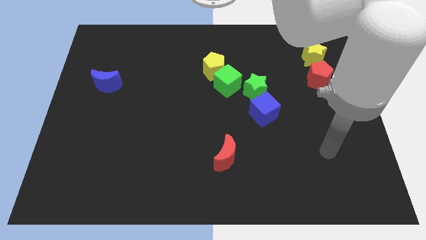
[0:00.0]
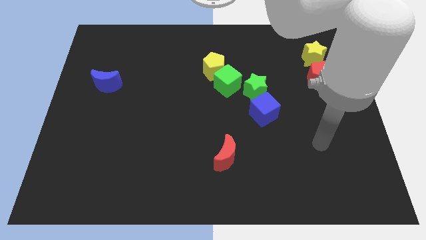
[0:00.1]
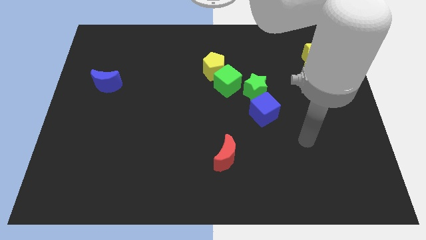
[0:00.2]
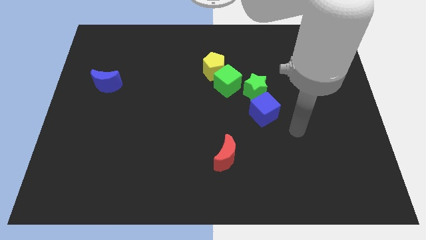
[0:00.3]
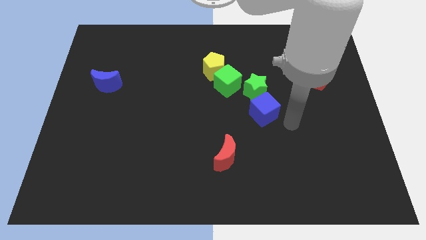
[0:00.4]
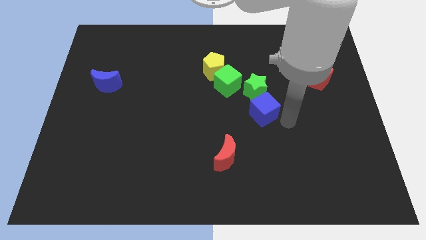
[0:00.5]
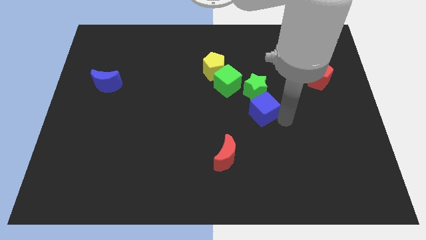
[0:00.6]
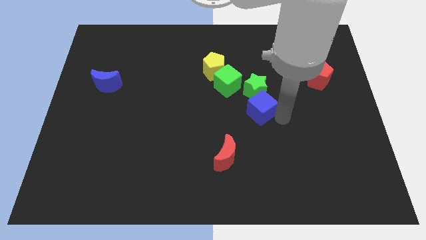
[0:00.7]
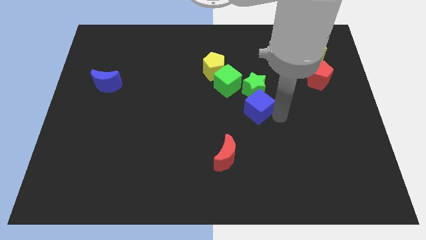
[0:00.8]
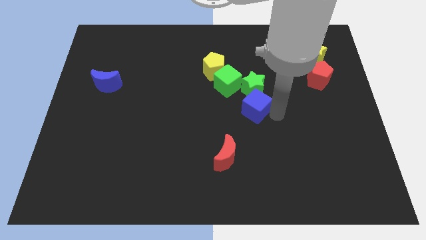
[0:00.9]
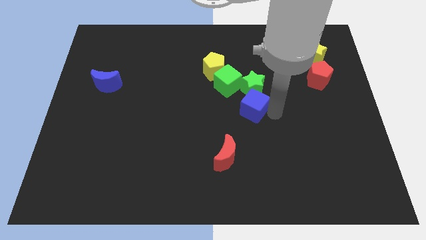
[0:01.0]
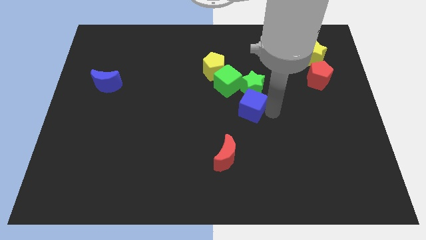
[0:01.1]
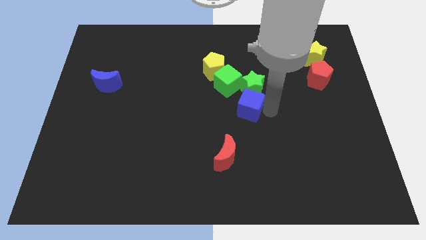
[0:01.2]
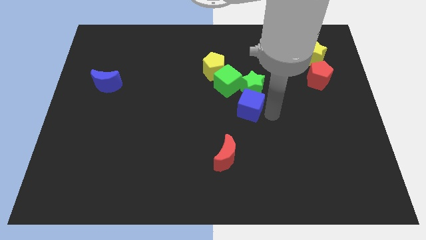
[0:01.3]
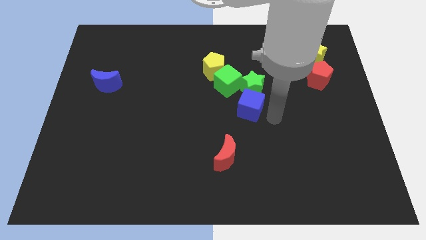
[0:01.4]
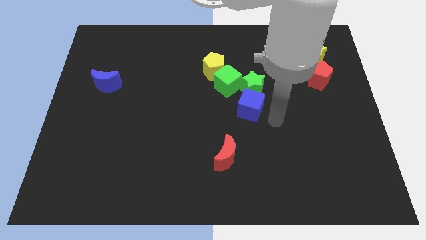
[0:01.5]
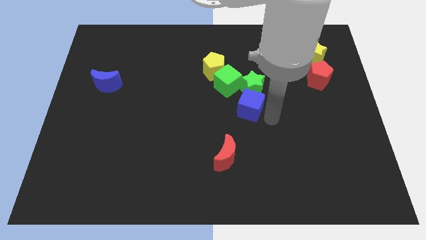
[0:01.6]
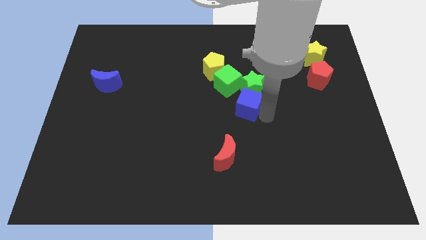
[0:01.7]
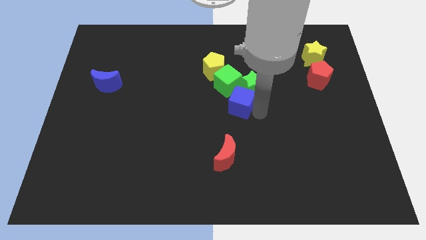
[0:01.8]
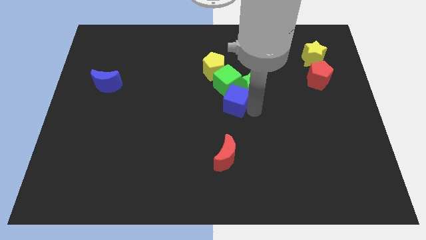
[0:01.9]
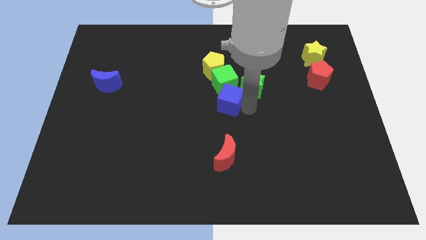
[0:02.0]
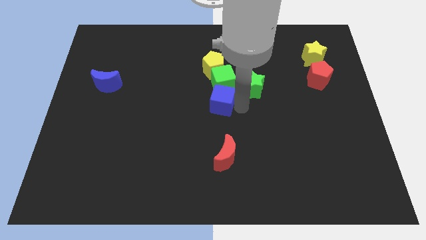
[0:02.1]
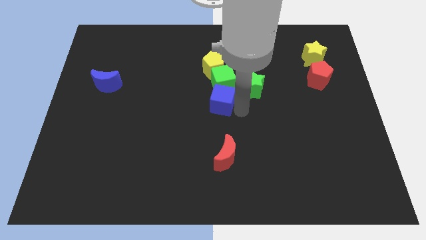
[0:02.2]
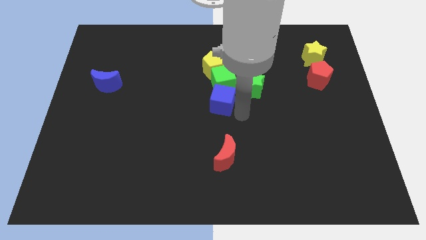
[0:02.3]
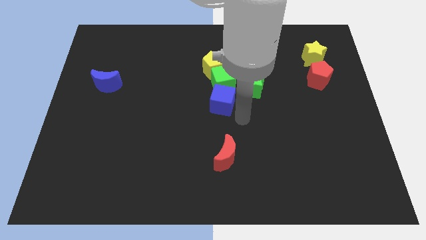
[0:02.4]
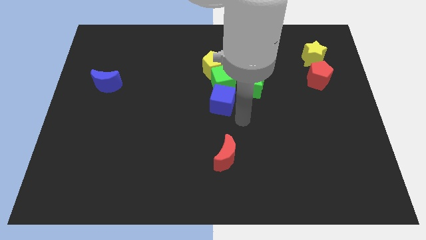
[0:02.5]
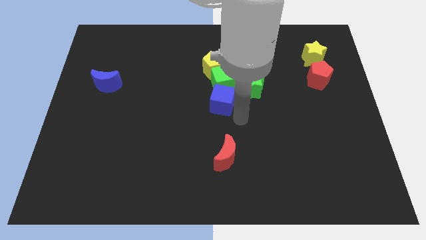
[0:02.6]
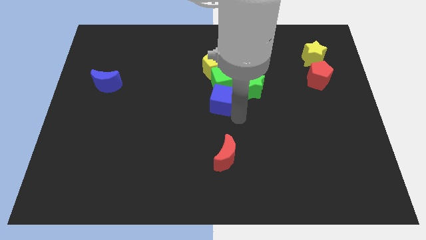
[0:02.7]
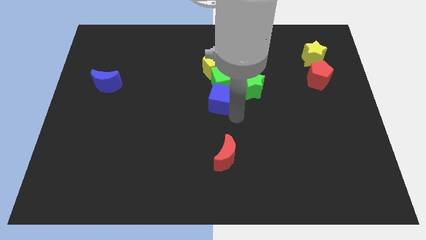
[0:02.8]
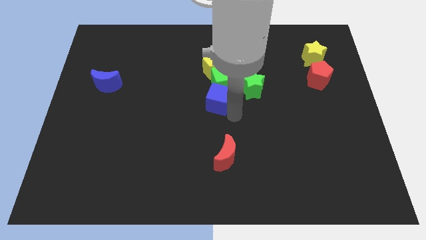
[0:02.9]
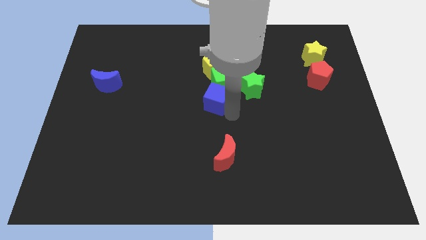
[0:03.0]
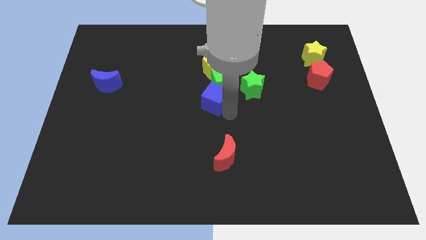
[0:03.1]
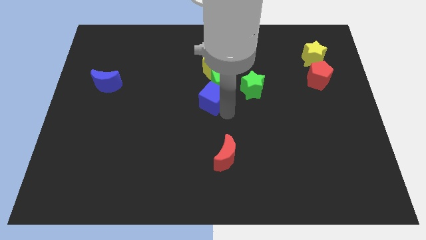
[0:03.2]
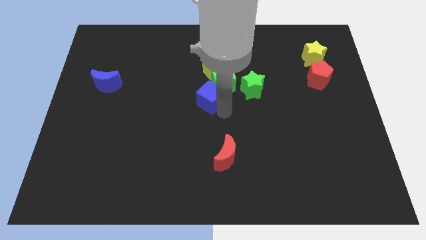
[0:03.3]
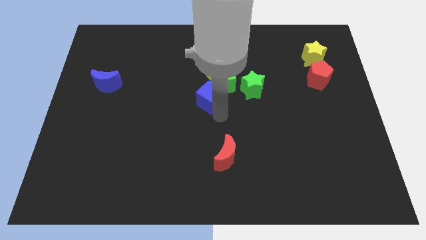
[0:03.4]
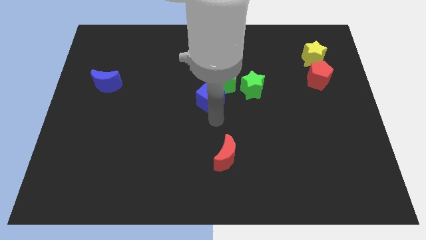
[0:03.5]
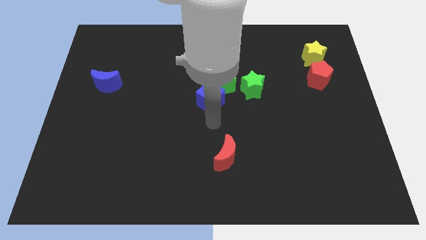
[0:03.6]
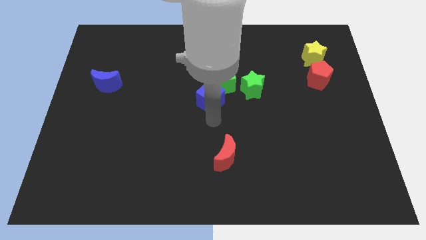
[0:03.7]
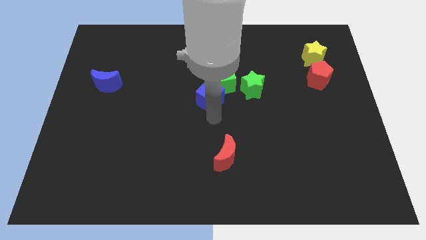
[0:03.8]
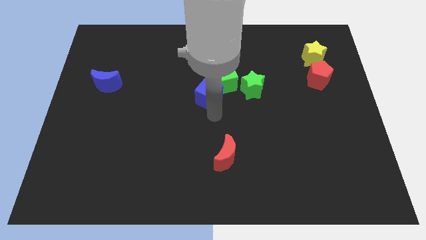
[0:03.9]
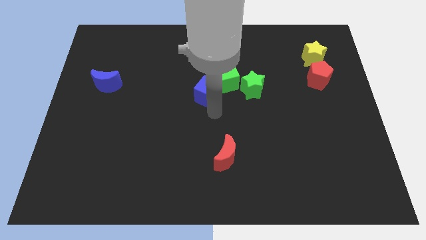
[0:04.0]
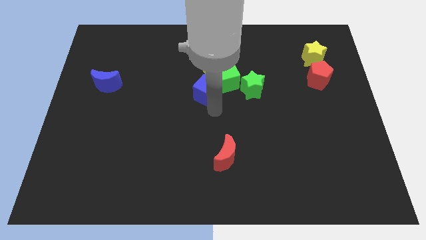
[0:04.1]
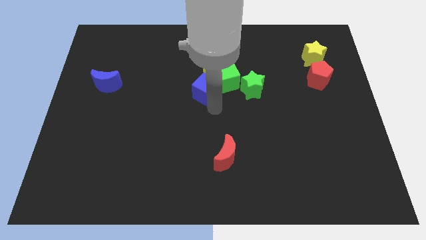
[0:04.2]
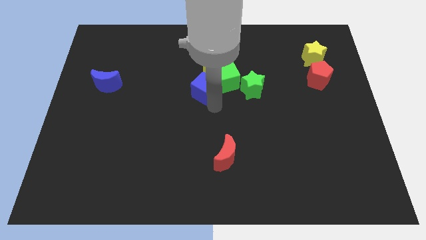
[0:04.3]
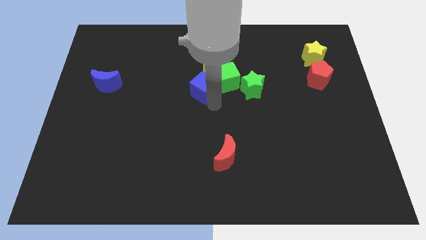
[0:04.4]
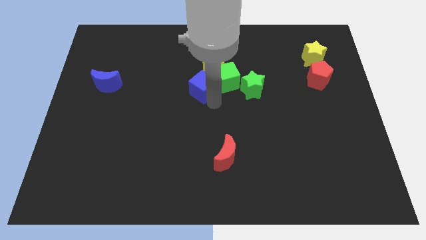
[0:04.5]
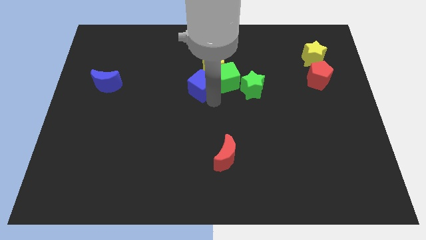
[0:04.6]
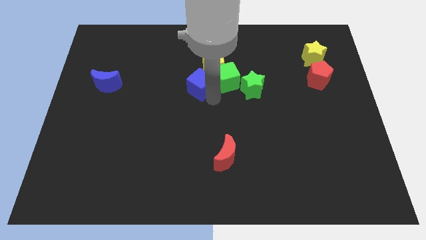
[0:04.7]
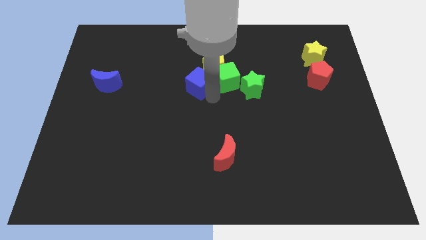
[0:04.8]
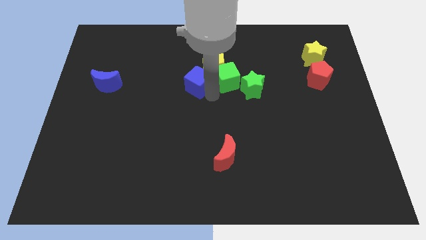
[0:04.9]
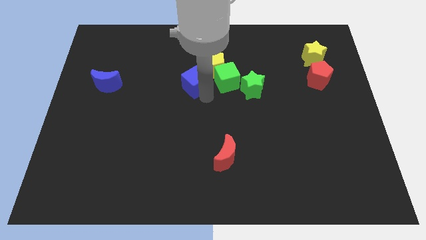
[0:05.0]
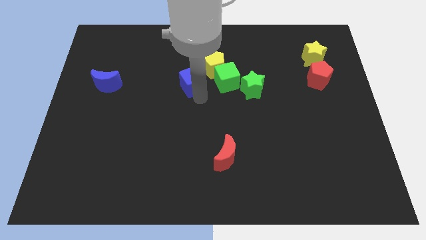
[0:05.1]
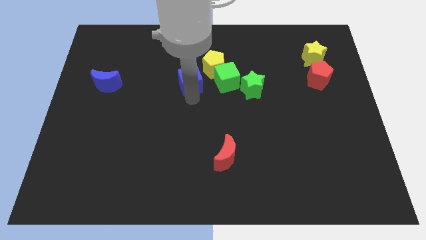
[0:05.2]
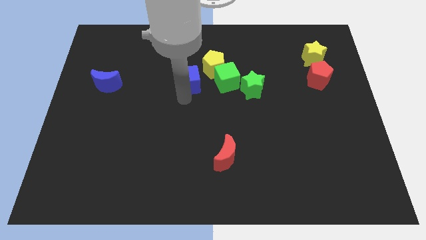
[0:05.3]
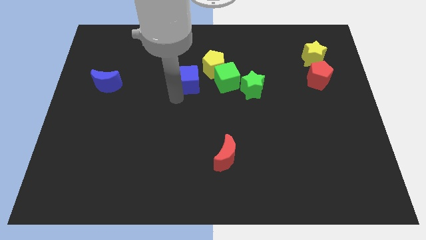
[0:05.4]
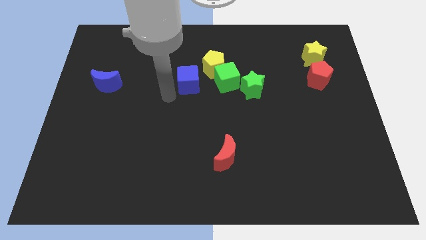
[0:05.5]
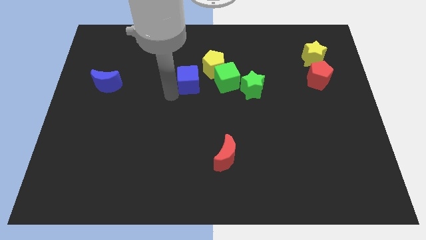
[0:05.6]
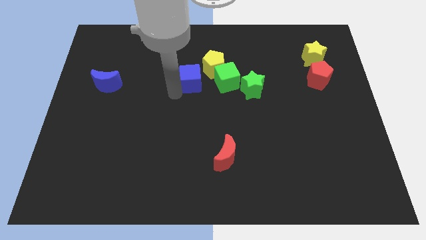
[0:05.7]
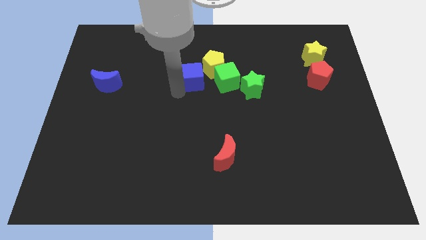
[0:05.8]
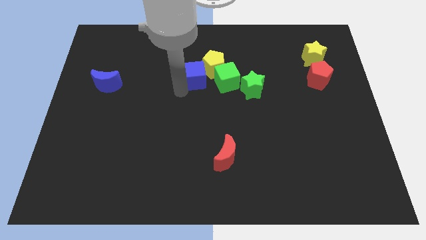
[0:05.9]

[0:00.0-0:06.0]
push the blue cube next to the yellow pentagon

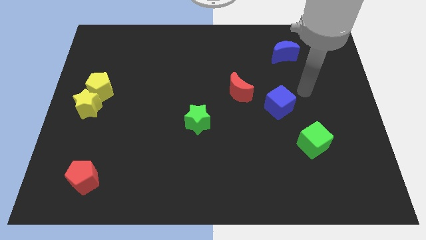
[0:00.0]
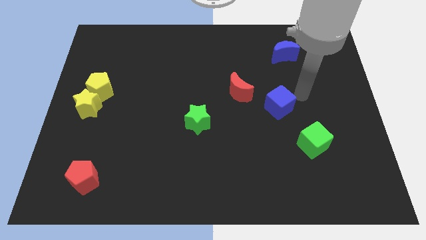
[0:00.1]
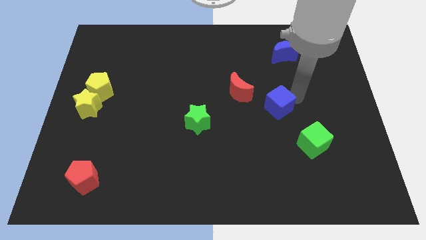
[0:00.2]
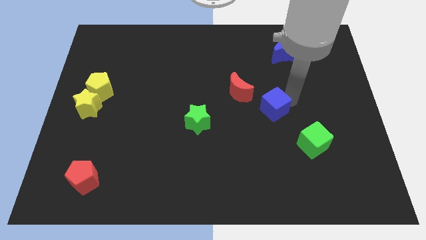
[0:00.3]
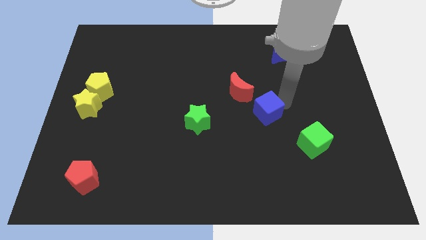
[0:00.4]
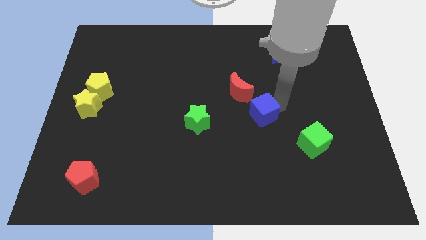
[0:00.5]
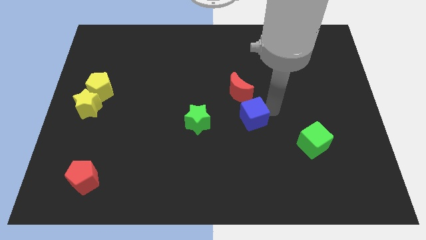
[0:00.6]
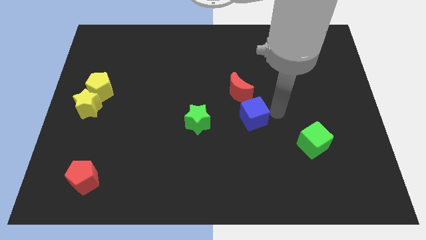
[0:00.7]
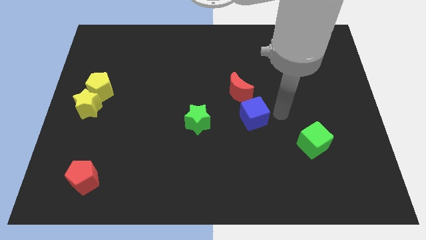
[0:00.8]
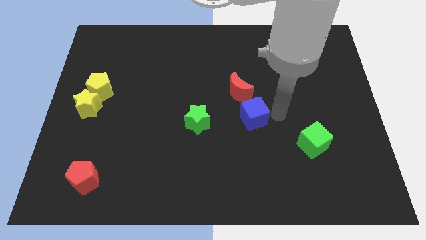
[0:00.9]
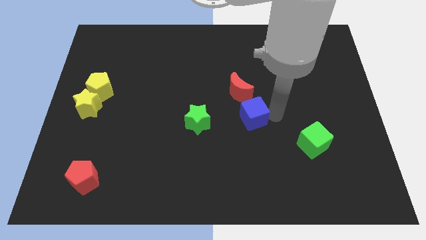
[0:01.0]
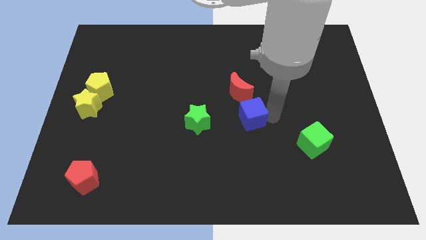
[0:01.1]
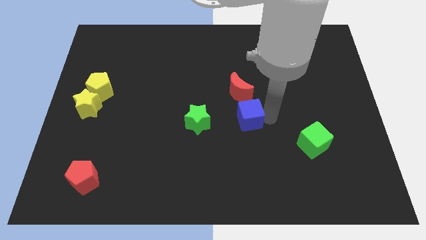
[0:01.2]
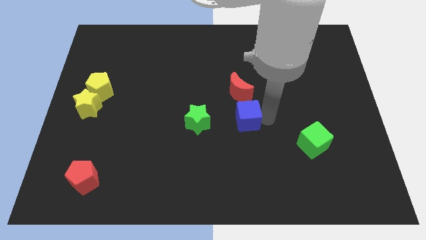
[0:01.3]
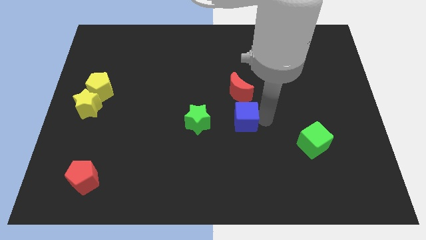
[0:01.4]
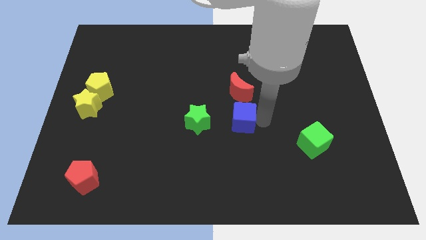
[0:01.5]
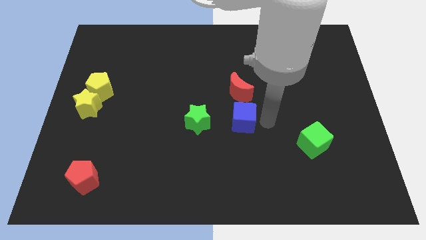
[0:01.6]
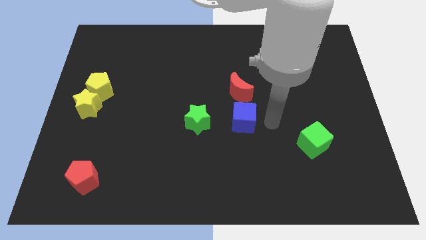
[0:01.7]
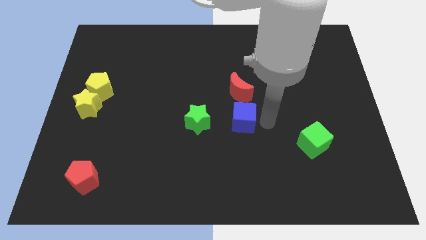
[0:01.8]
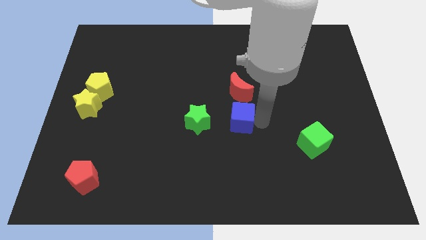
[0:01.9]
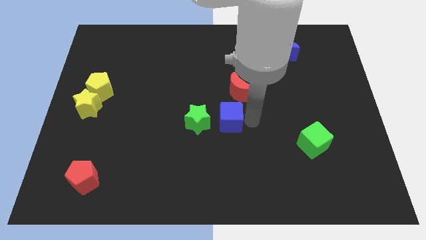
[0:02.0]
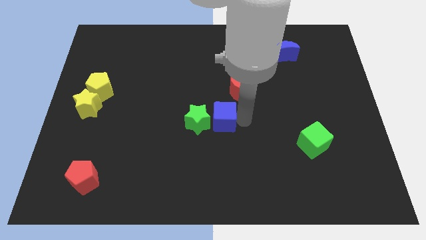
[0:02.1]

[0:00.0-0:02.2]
push the blue cube close to the green star
